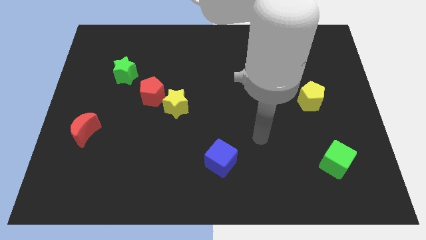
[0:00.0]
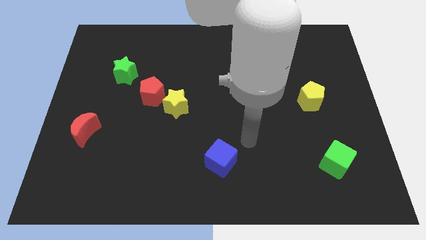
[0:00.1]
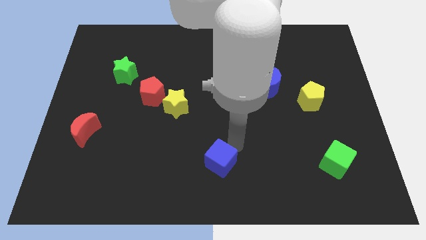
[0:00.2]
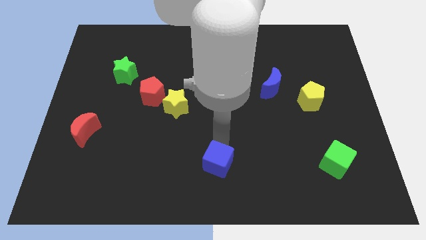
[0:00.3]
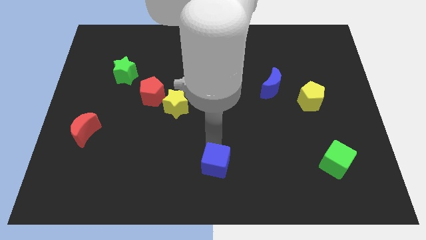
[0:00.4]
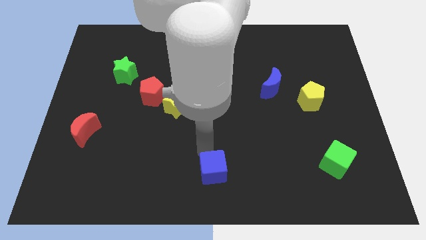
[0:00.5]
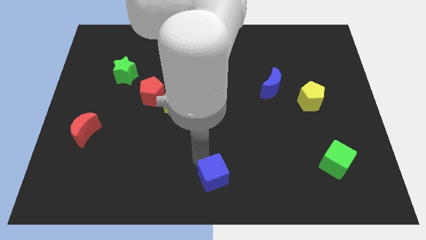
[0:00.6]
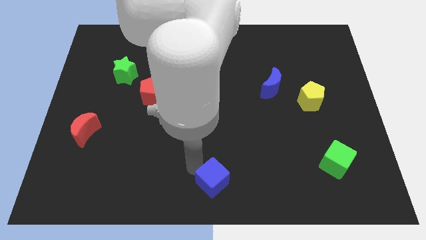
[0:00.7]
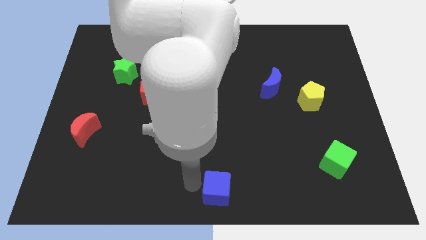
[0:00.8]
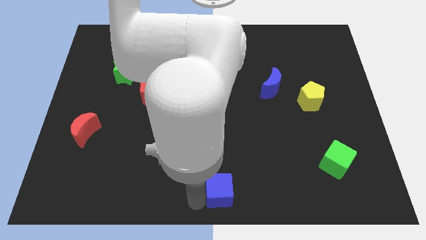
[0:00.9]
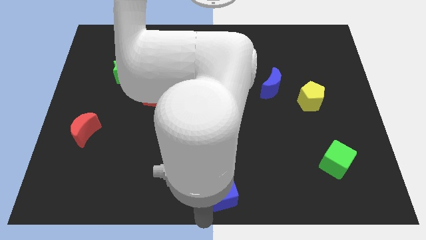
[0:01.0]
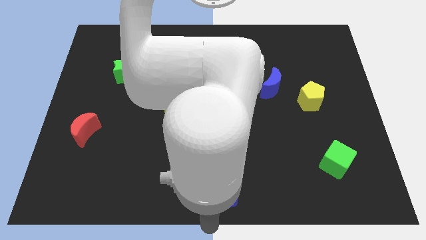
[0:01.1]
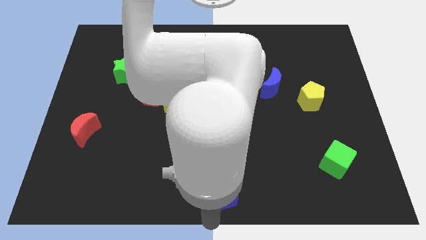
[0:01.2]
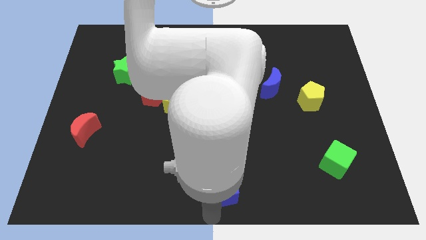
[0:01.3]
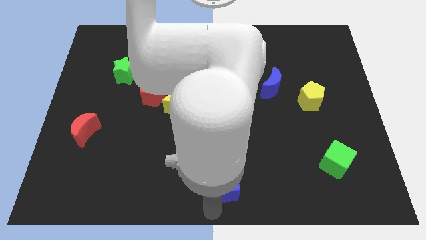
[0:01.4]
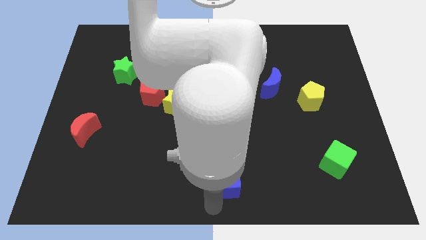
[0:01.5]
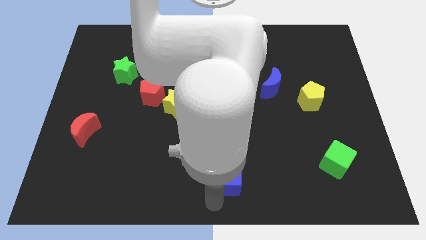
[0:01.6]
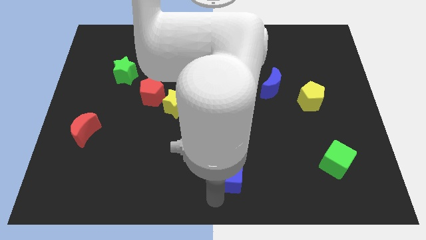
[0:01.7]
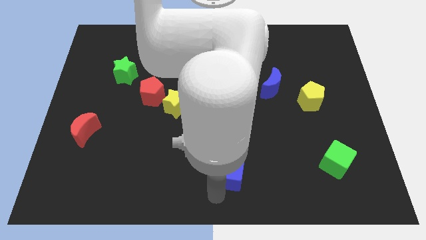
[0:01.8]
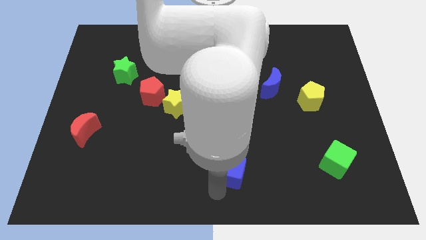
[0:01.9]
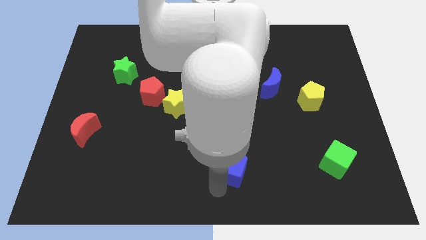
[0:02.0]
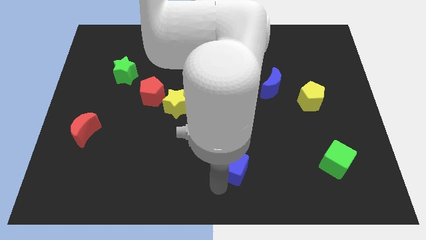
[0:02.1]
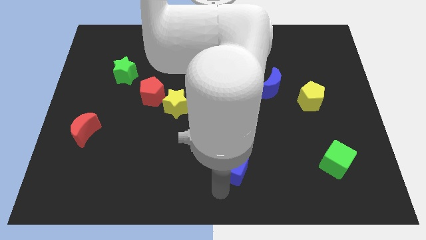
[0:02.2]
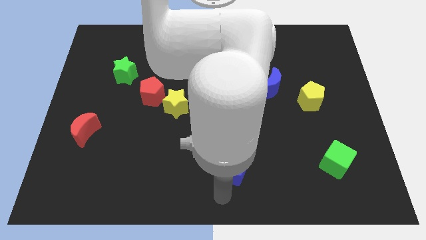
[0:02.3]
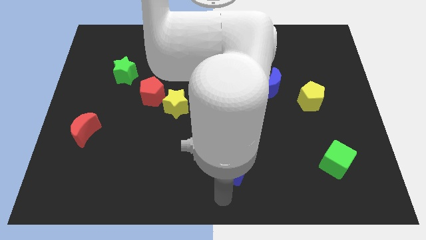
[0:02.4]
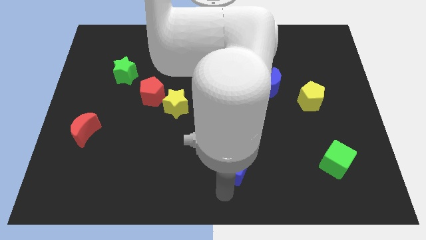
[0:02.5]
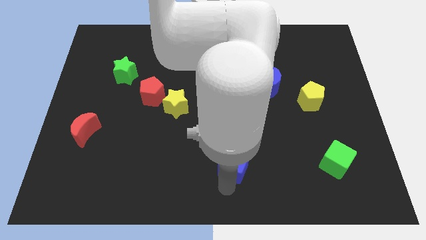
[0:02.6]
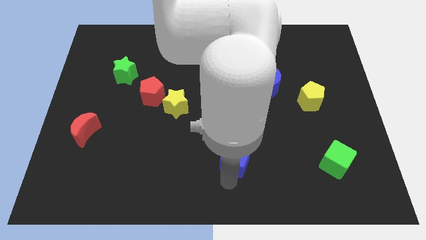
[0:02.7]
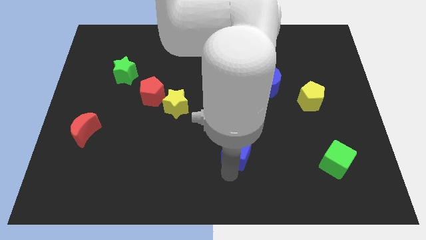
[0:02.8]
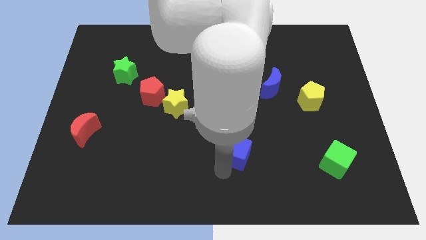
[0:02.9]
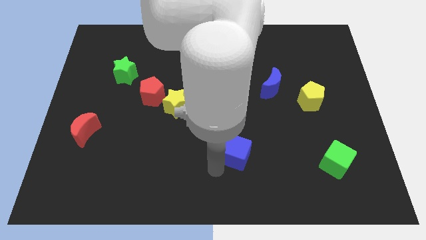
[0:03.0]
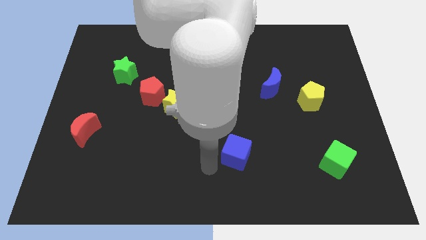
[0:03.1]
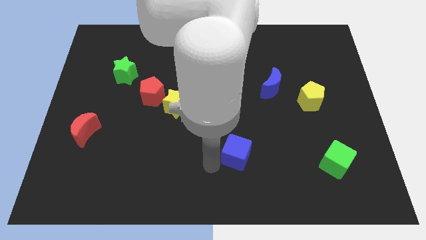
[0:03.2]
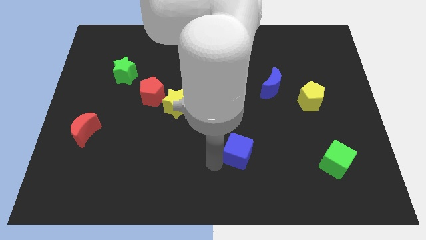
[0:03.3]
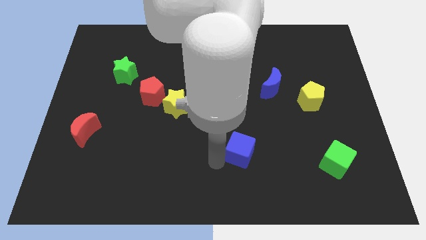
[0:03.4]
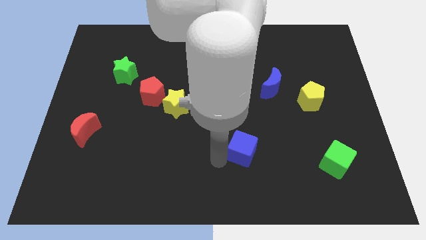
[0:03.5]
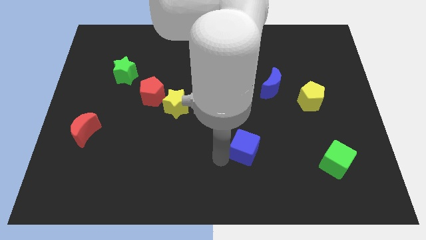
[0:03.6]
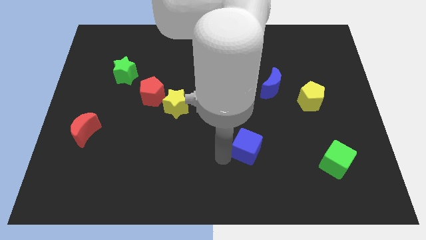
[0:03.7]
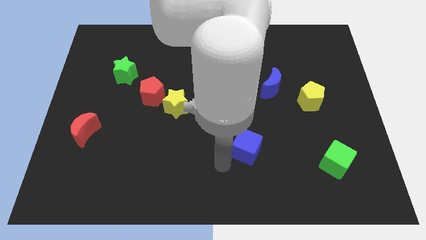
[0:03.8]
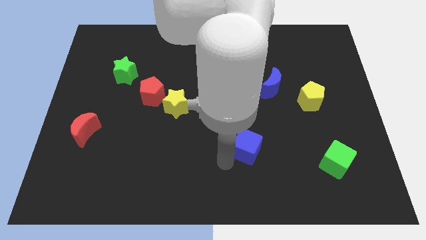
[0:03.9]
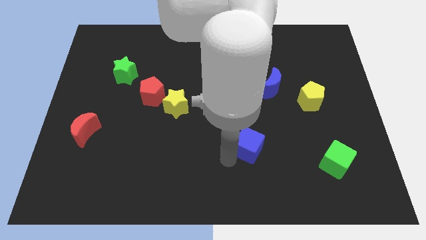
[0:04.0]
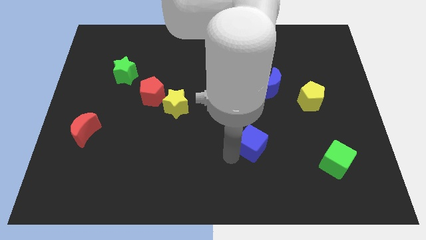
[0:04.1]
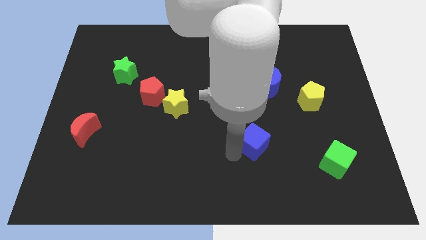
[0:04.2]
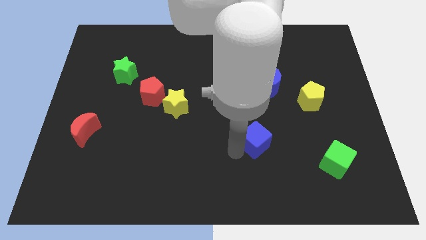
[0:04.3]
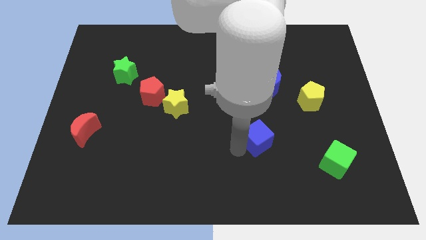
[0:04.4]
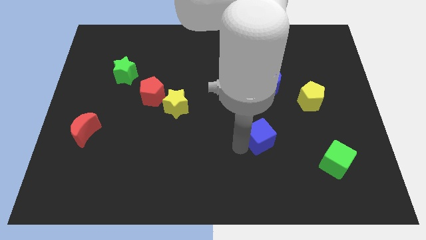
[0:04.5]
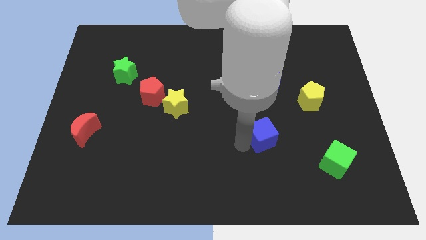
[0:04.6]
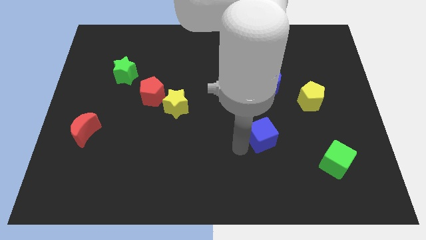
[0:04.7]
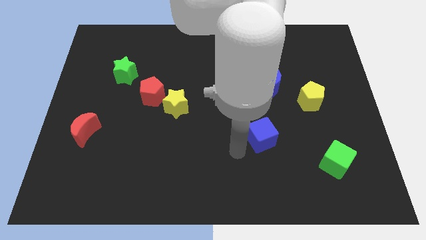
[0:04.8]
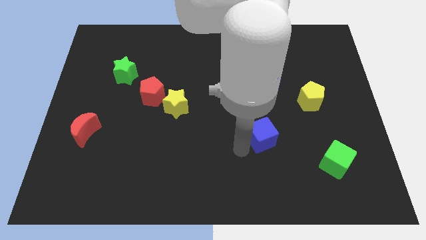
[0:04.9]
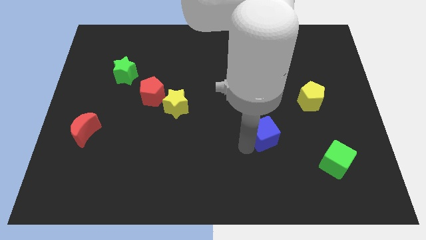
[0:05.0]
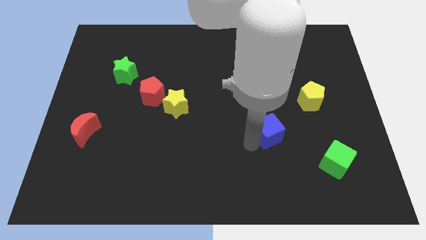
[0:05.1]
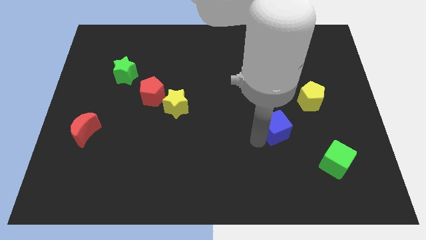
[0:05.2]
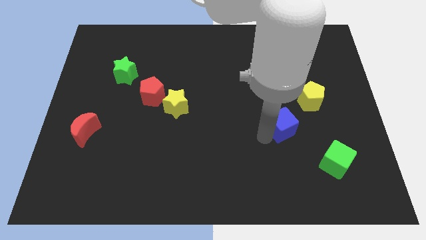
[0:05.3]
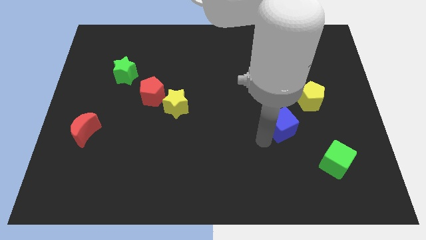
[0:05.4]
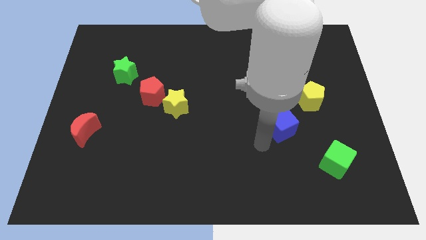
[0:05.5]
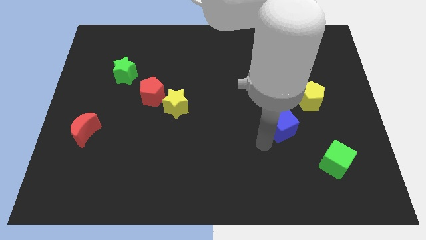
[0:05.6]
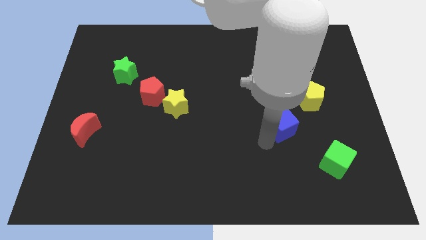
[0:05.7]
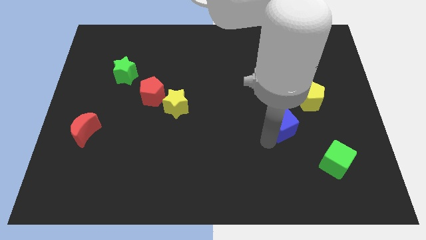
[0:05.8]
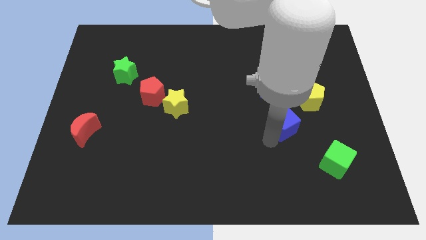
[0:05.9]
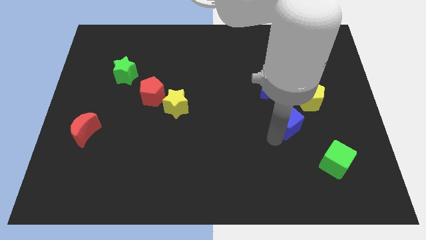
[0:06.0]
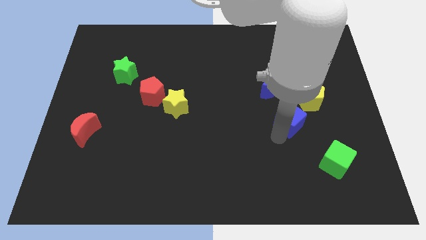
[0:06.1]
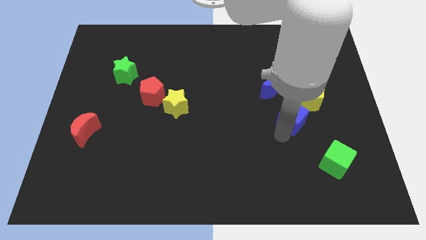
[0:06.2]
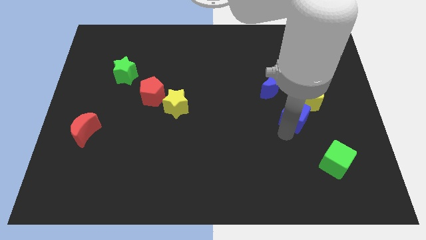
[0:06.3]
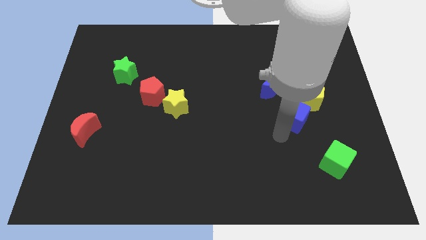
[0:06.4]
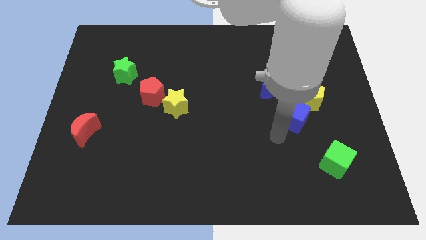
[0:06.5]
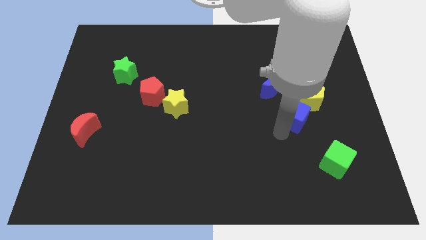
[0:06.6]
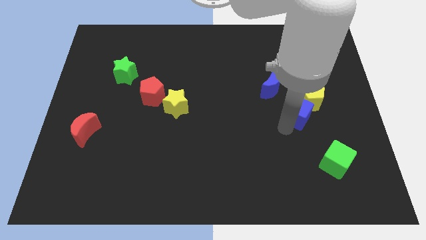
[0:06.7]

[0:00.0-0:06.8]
move the blue cube close to the yellow pentagon

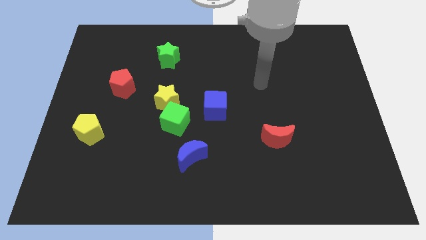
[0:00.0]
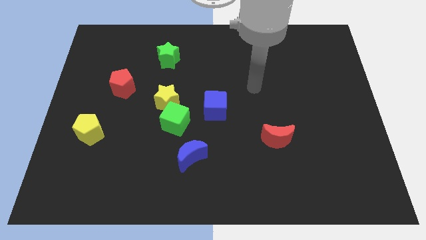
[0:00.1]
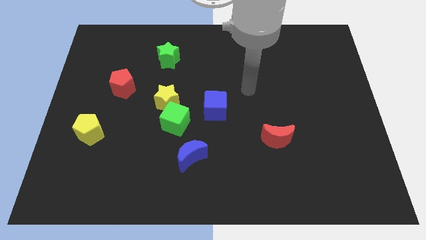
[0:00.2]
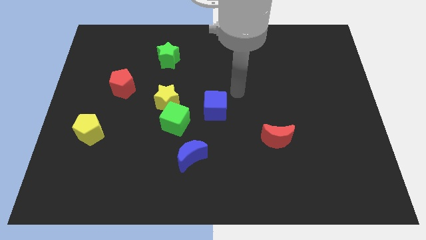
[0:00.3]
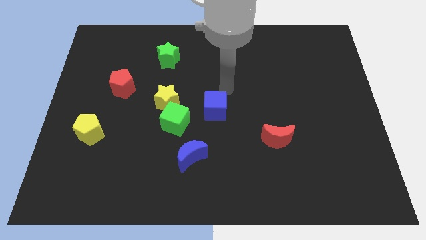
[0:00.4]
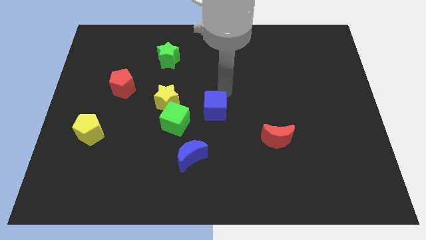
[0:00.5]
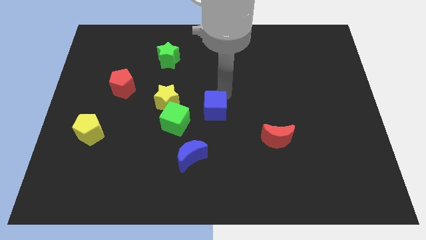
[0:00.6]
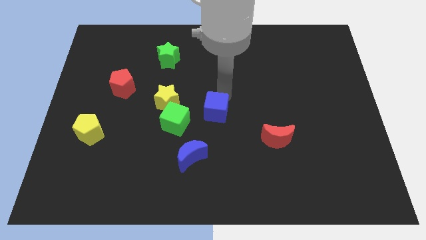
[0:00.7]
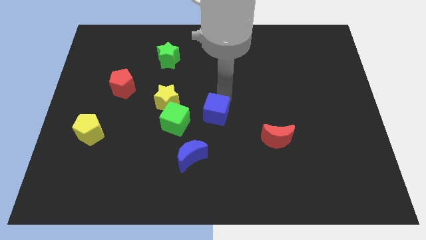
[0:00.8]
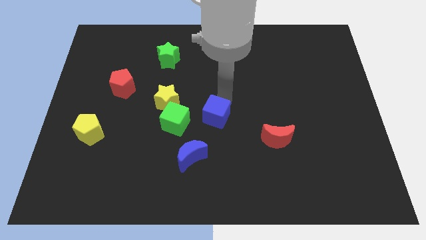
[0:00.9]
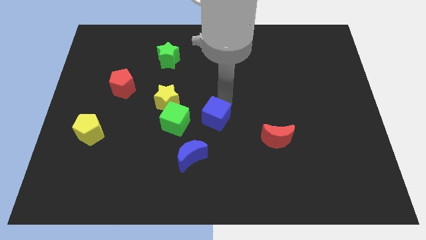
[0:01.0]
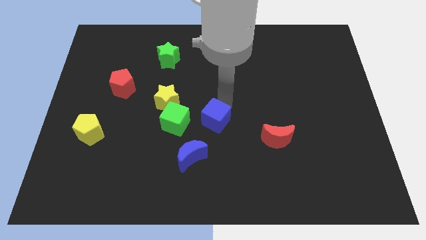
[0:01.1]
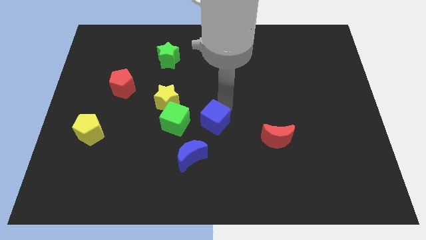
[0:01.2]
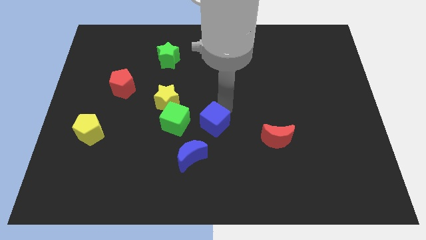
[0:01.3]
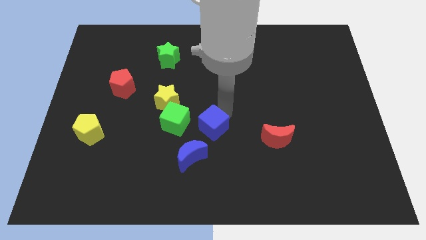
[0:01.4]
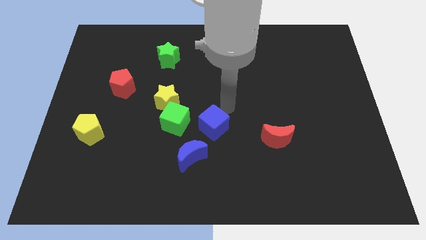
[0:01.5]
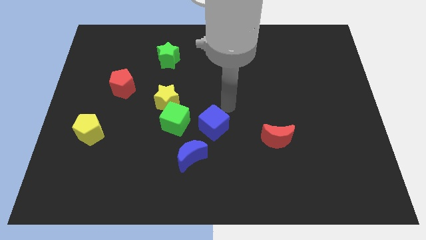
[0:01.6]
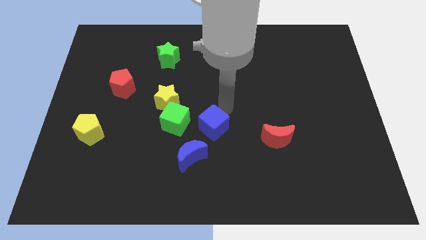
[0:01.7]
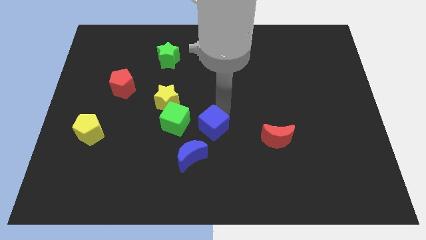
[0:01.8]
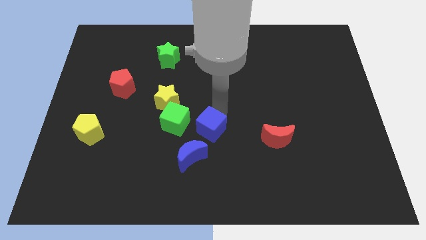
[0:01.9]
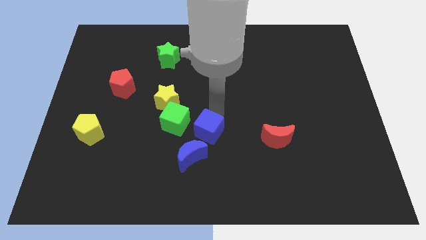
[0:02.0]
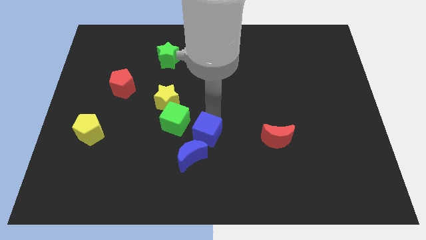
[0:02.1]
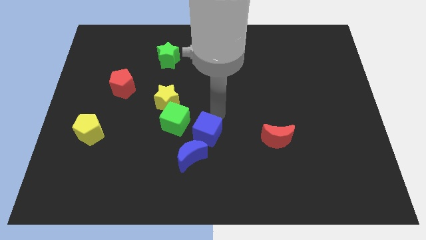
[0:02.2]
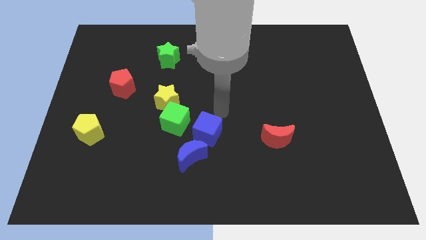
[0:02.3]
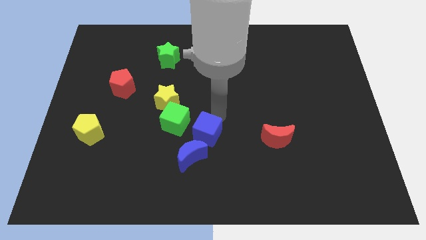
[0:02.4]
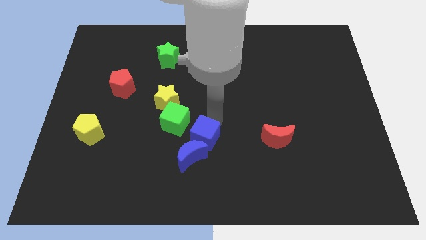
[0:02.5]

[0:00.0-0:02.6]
push the blue cube to the blue moon
